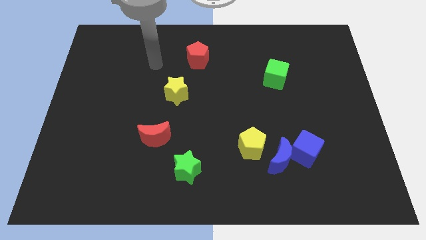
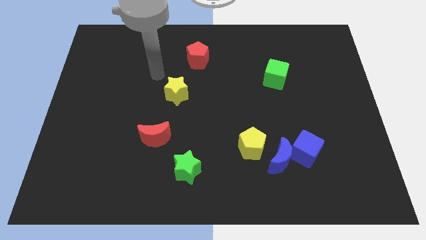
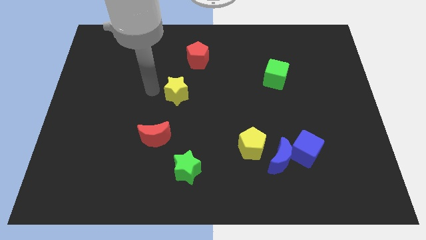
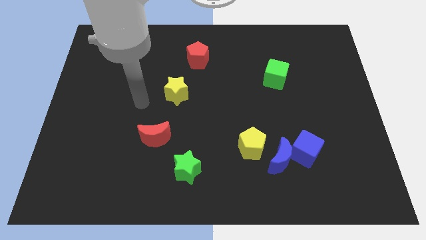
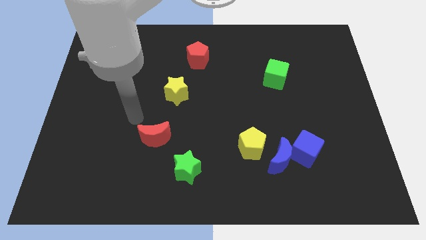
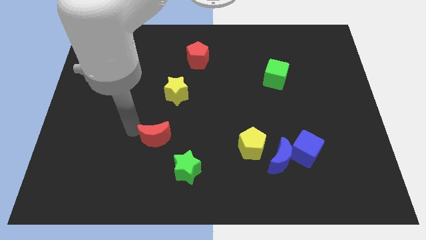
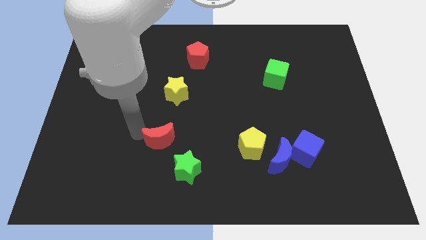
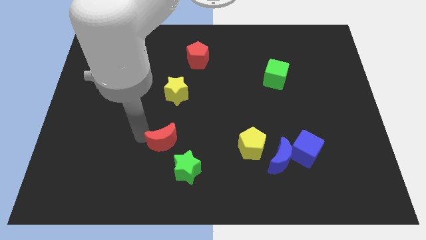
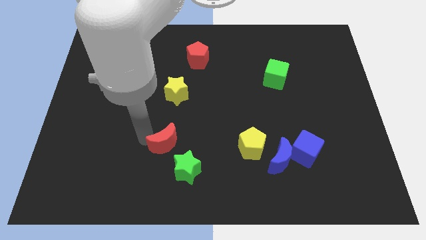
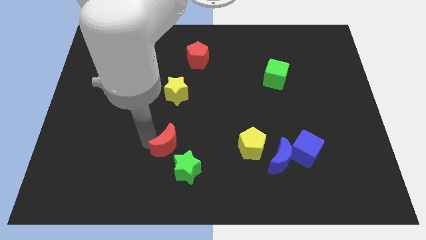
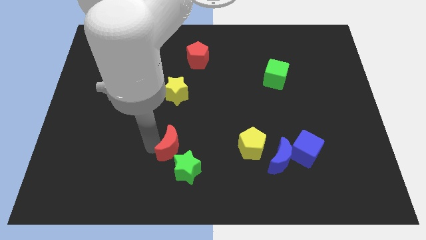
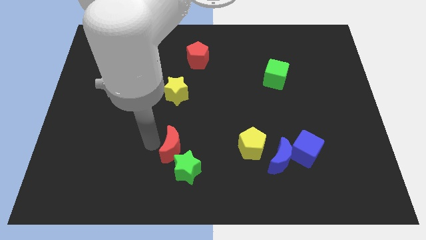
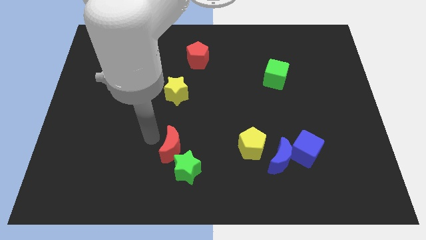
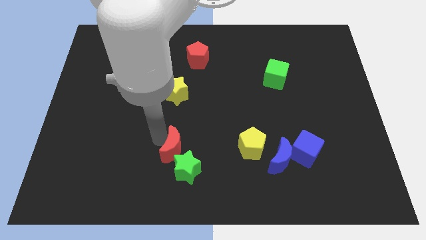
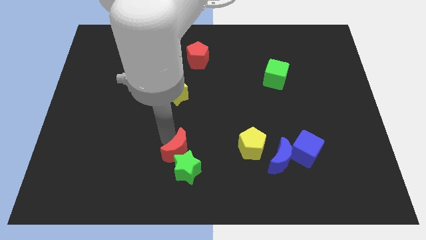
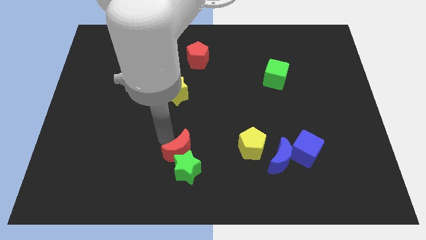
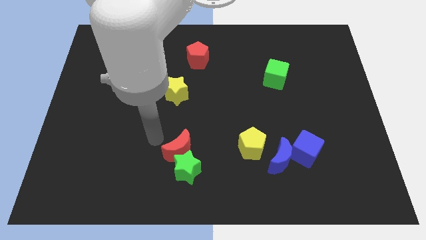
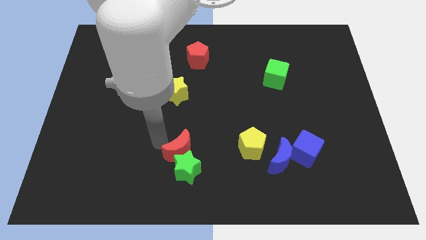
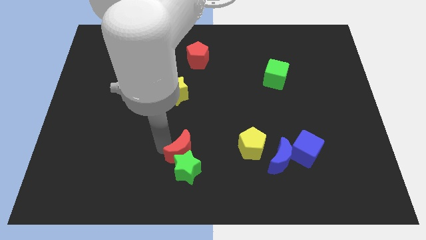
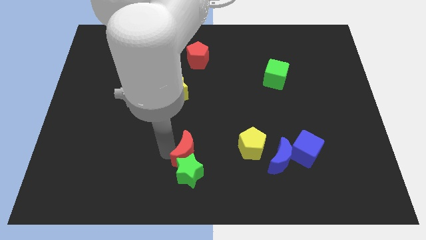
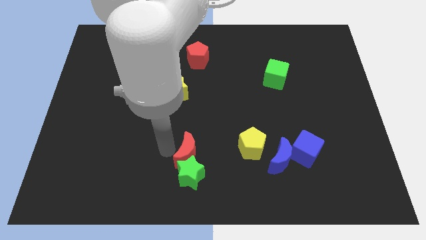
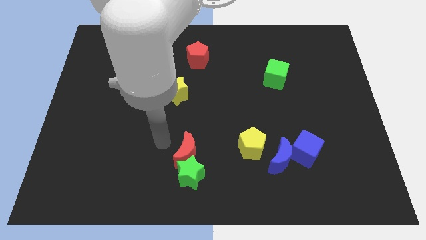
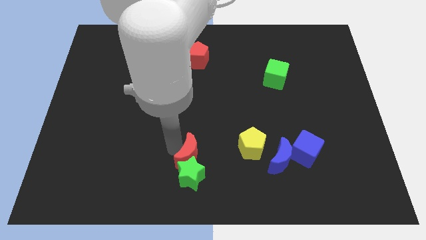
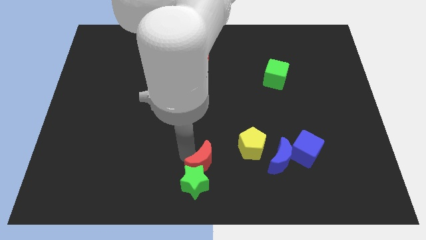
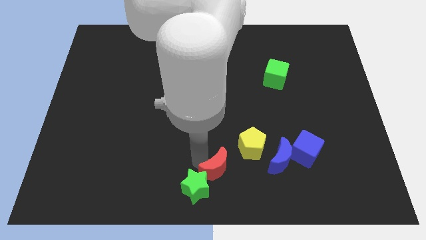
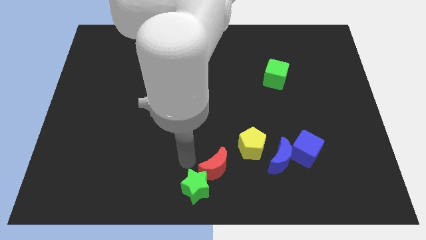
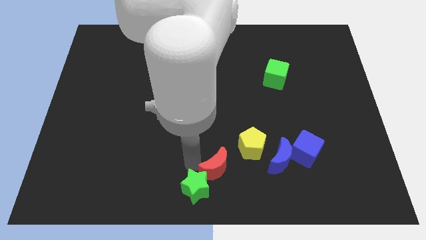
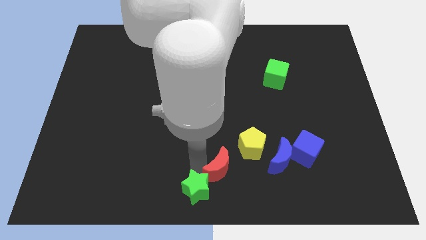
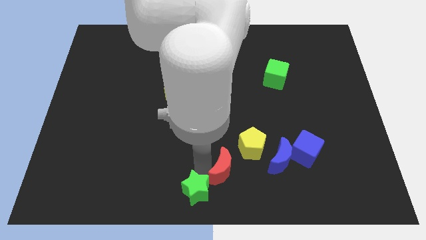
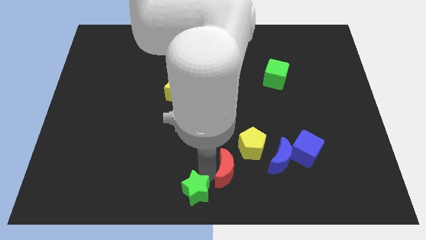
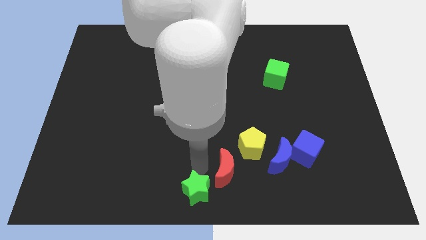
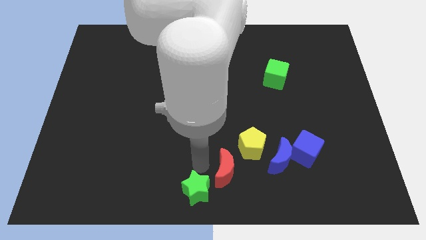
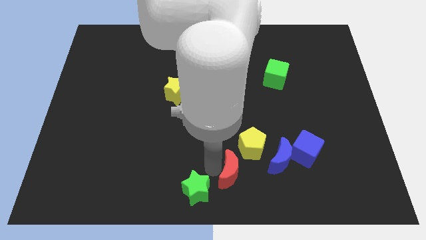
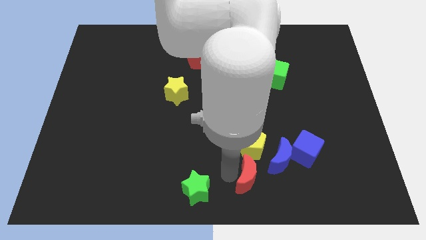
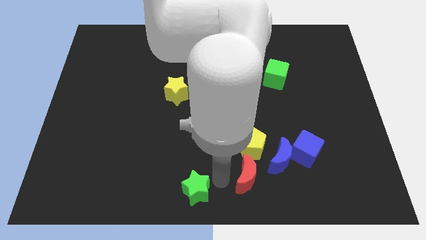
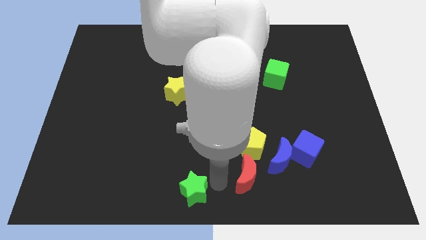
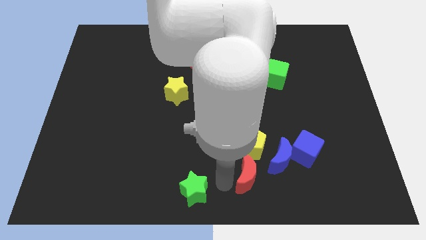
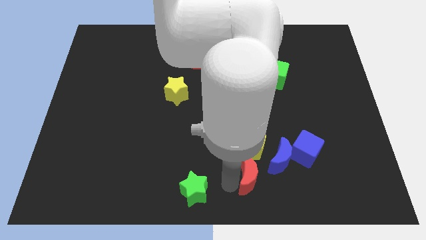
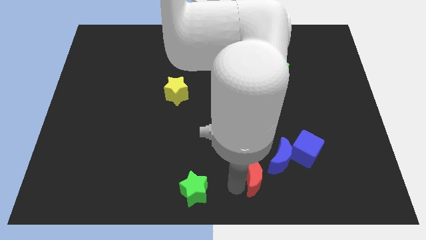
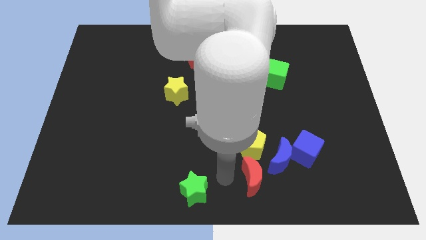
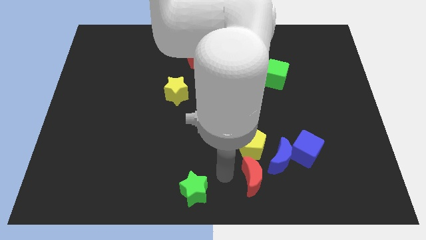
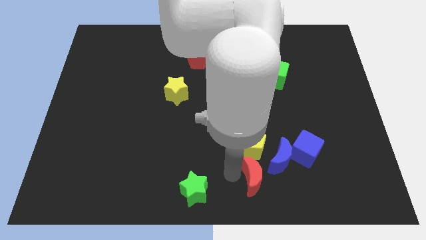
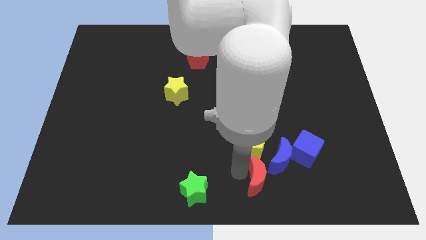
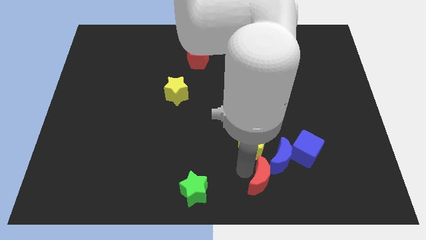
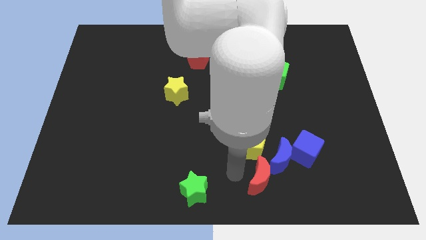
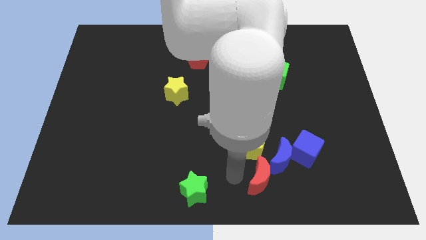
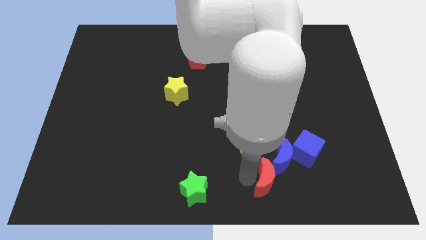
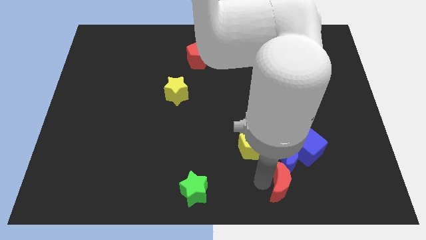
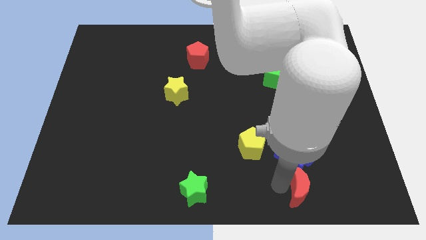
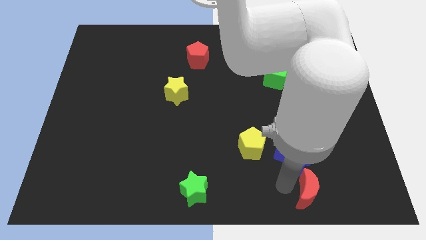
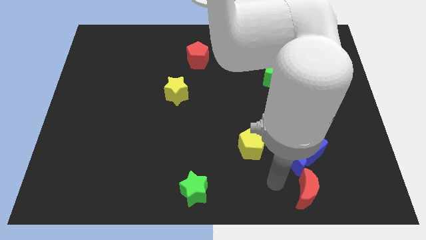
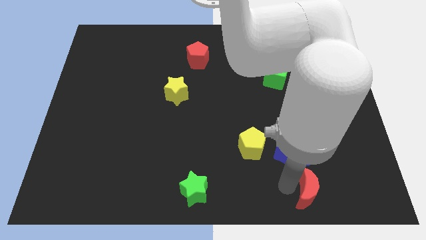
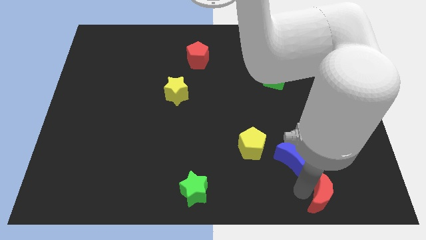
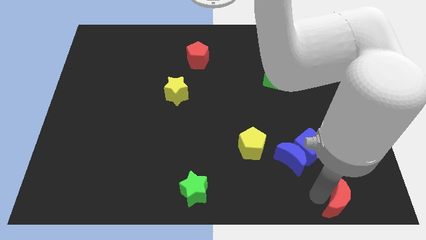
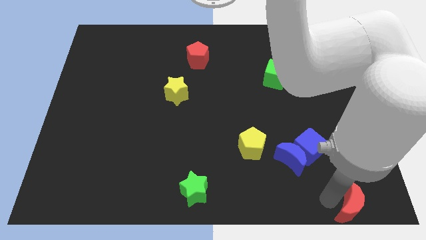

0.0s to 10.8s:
put the red moon to the bottom right corner

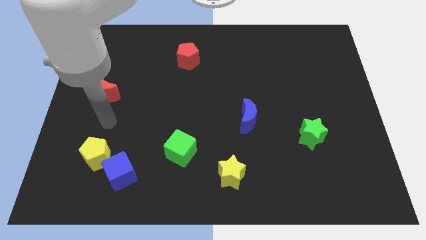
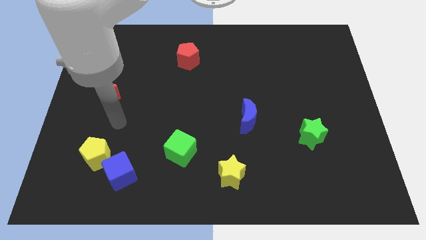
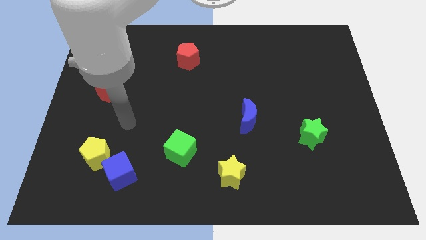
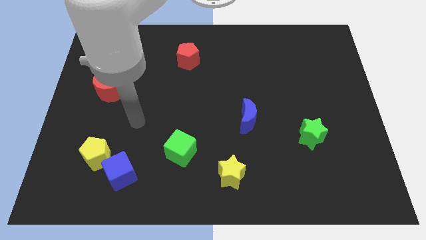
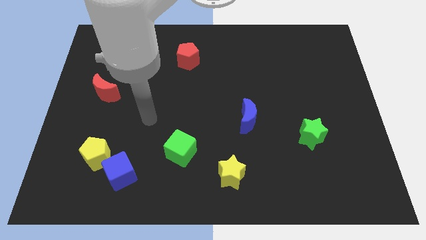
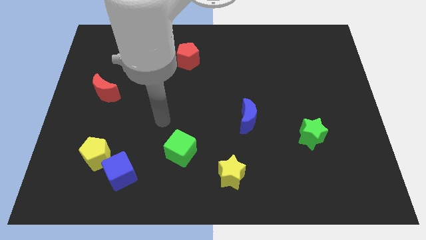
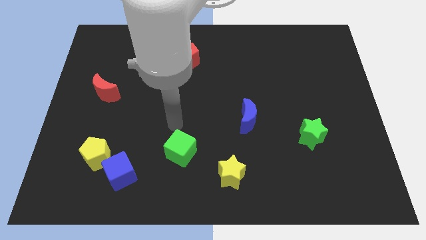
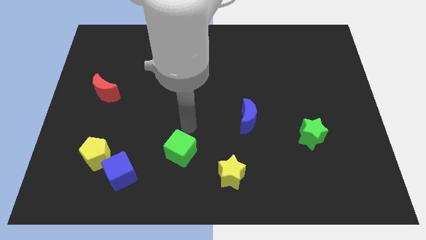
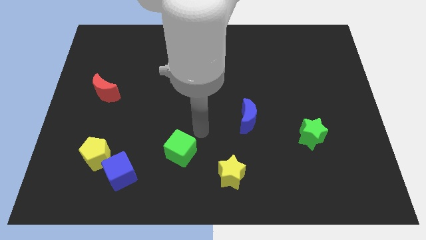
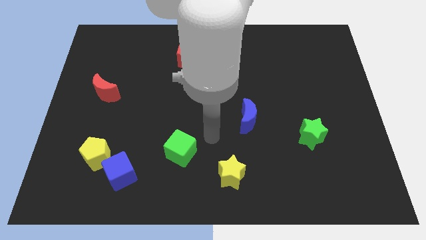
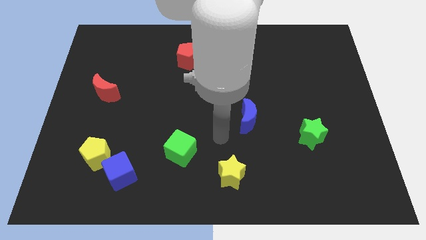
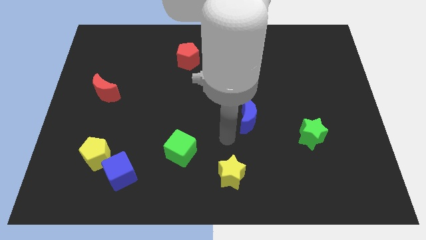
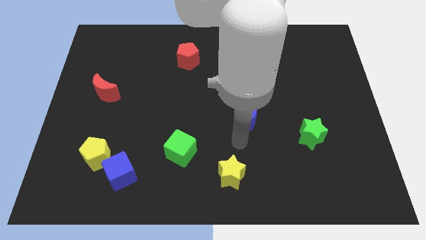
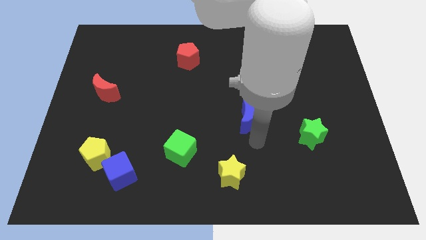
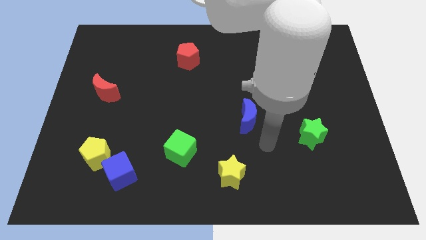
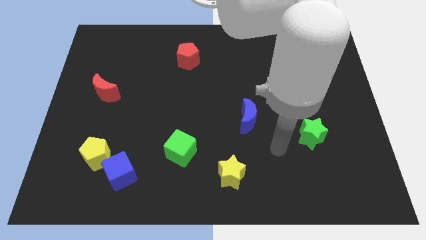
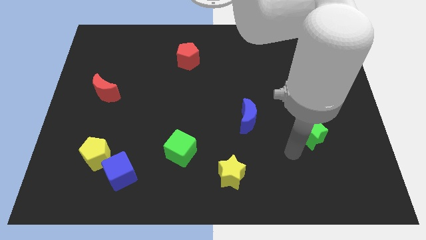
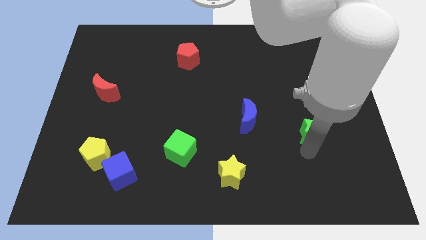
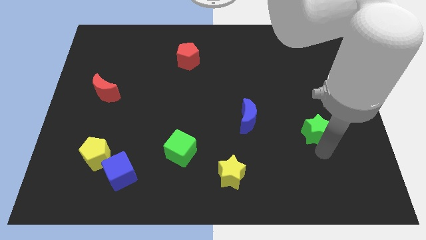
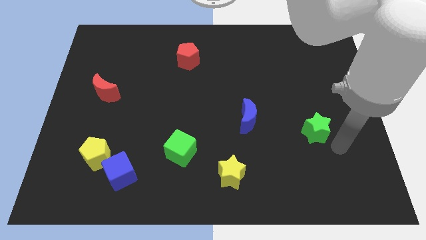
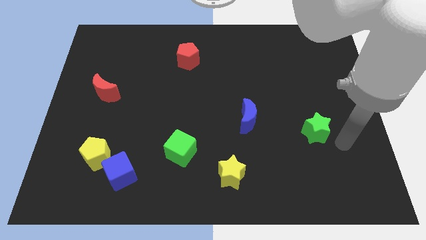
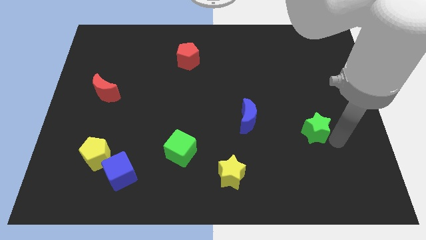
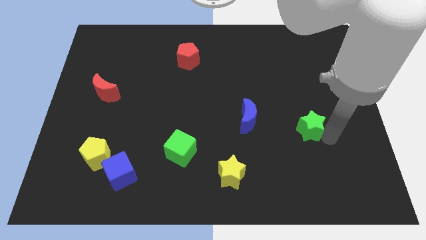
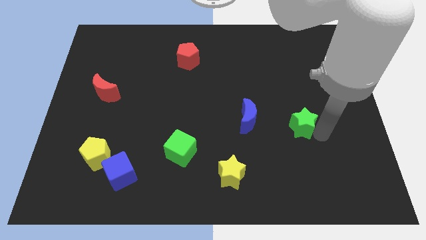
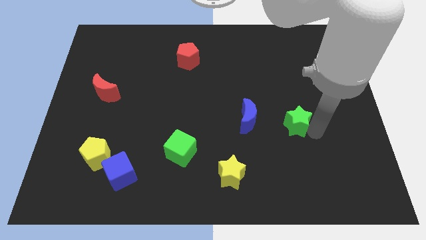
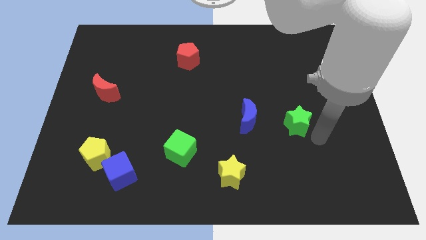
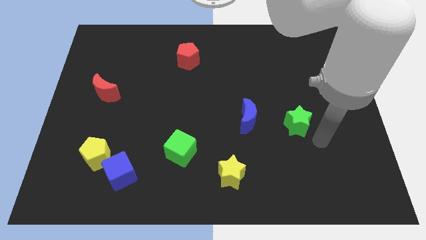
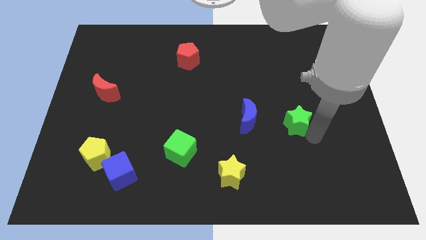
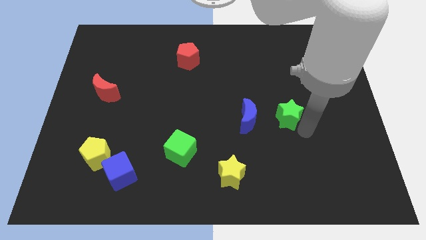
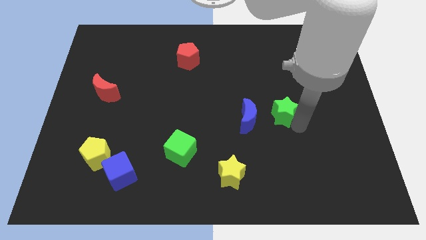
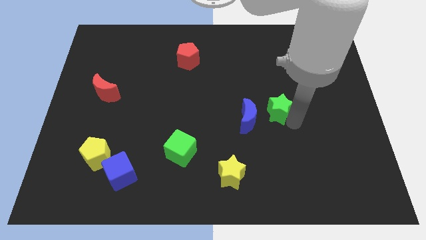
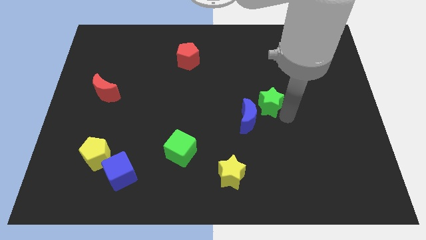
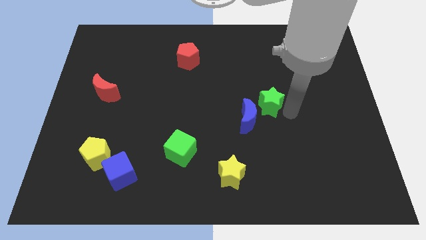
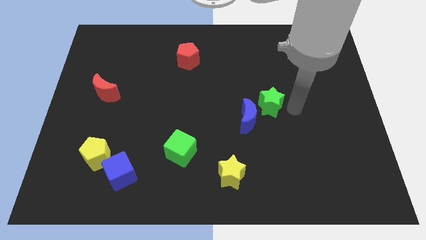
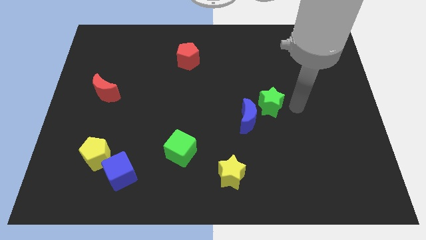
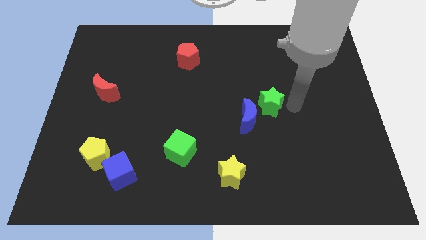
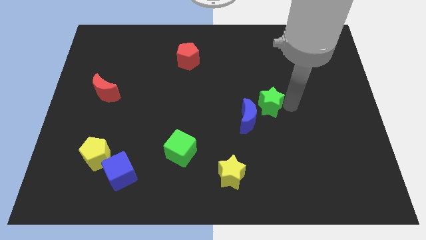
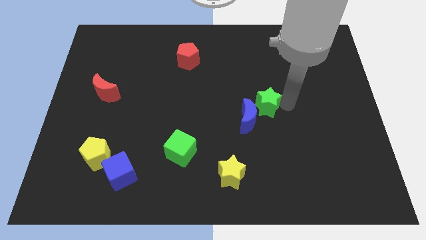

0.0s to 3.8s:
push the green star to the middle of the board
